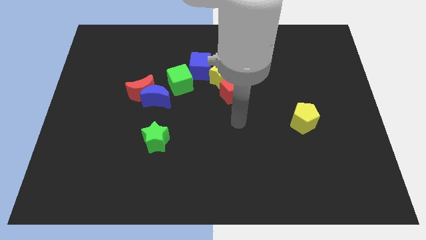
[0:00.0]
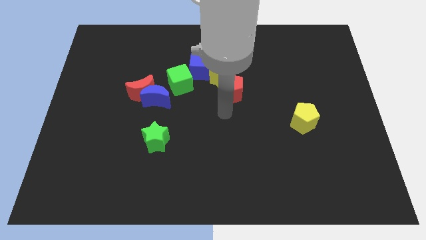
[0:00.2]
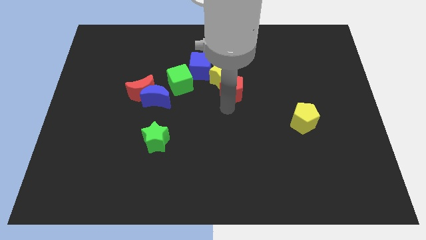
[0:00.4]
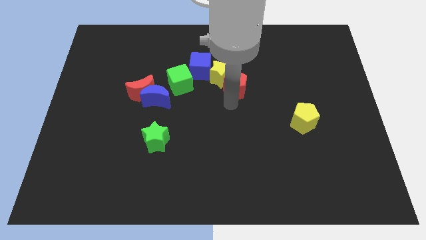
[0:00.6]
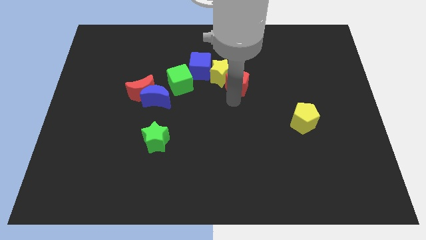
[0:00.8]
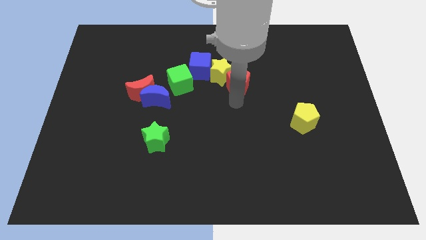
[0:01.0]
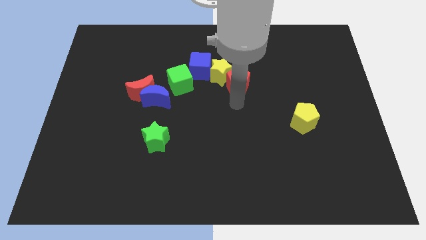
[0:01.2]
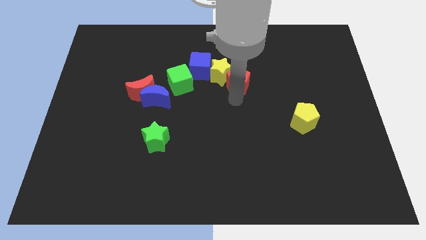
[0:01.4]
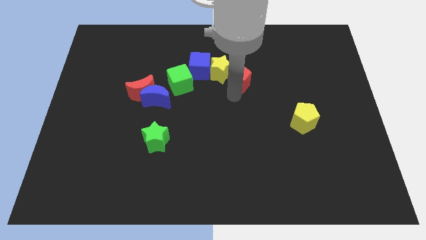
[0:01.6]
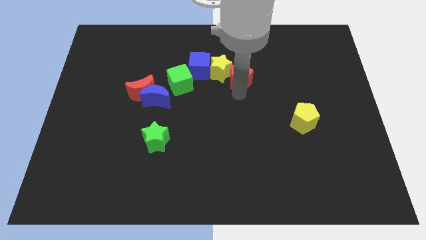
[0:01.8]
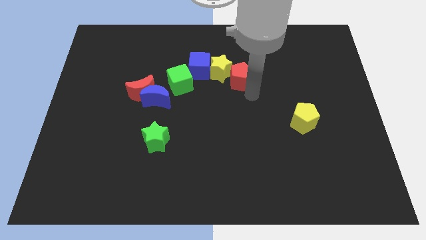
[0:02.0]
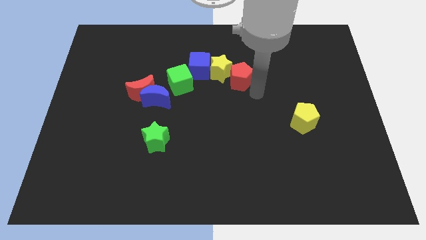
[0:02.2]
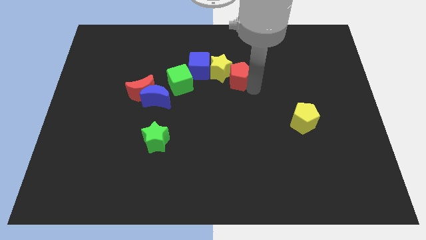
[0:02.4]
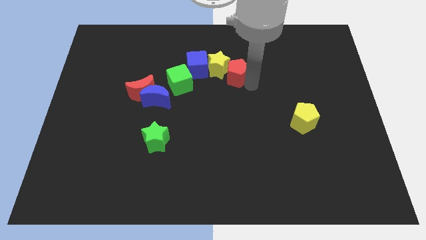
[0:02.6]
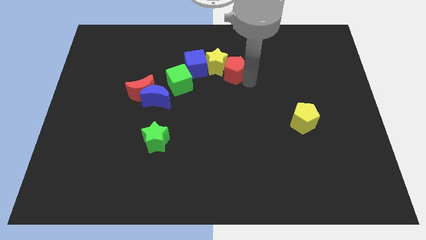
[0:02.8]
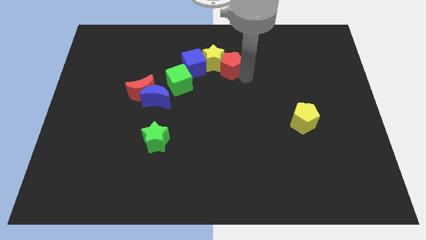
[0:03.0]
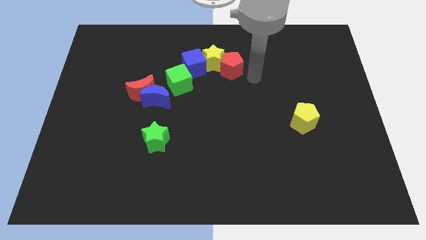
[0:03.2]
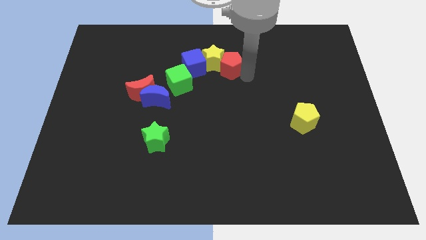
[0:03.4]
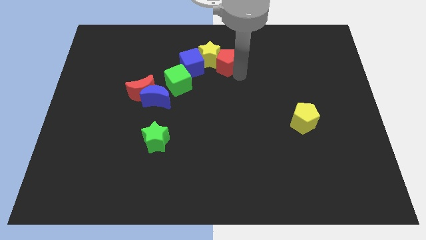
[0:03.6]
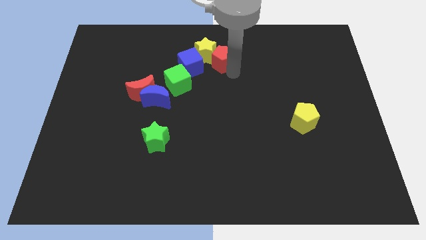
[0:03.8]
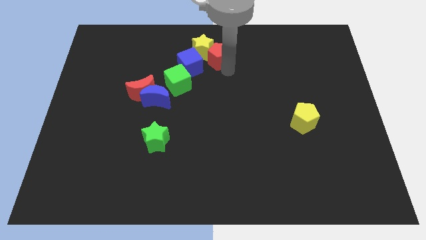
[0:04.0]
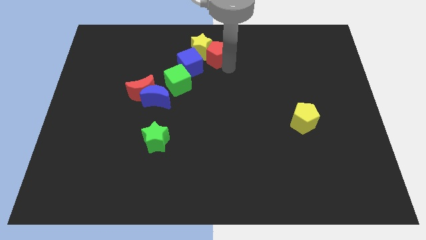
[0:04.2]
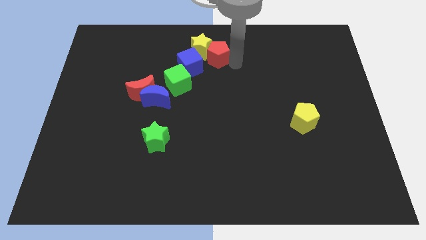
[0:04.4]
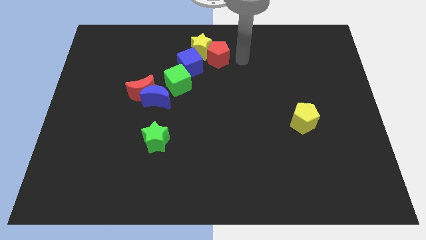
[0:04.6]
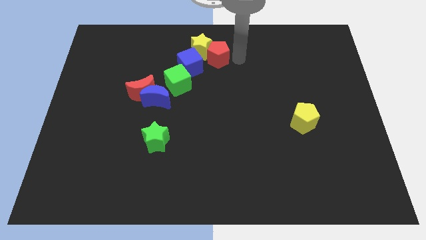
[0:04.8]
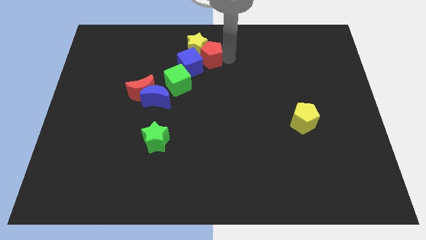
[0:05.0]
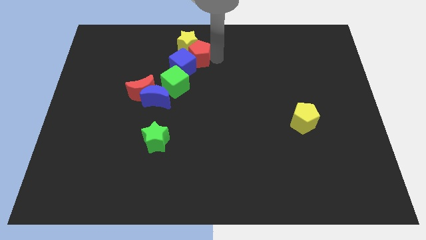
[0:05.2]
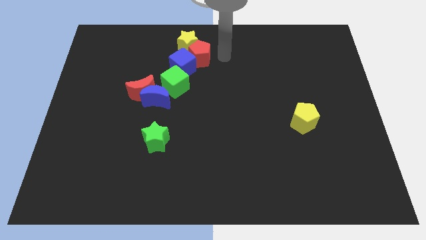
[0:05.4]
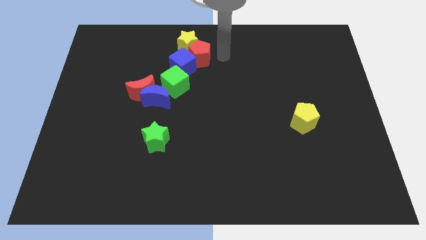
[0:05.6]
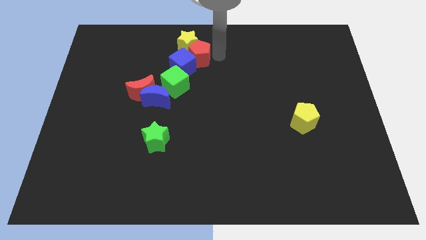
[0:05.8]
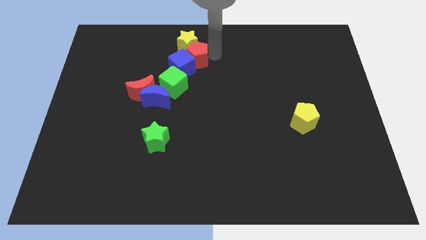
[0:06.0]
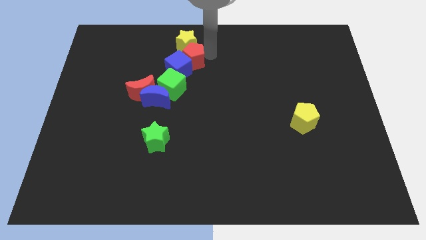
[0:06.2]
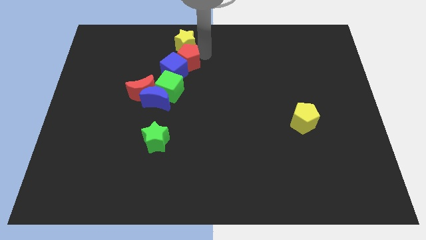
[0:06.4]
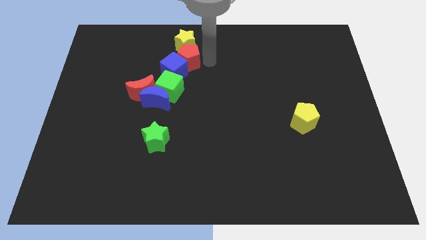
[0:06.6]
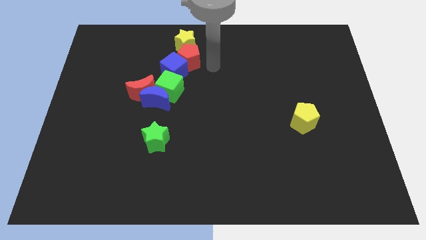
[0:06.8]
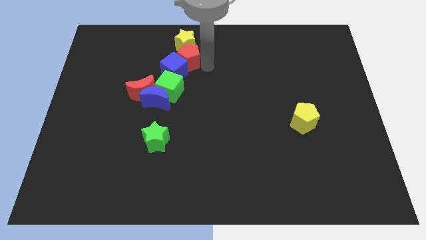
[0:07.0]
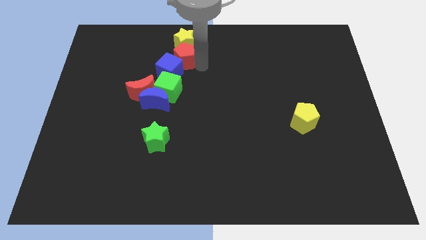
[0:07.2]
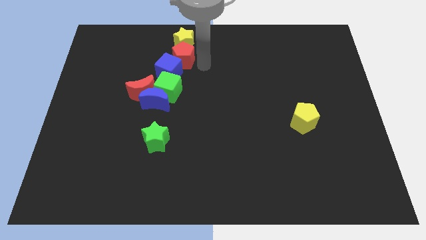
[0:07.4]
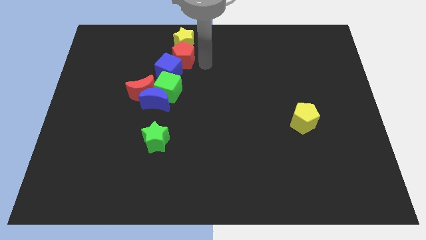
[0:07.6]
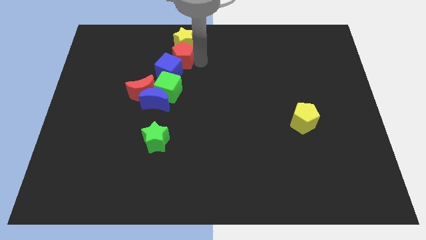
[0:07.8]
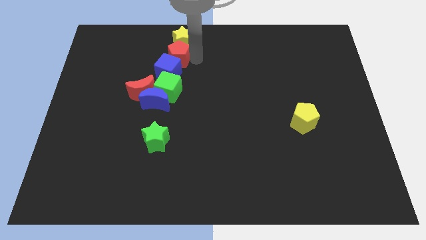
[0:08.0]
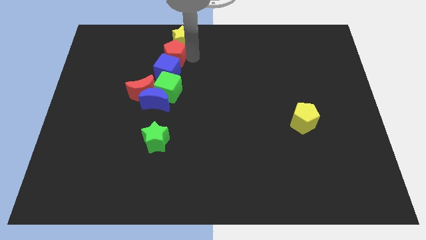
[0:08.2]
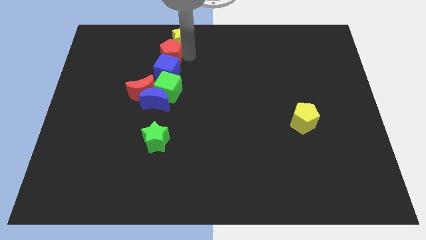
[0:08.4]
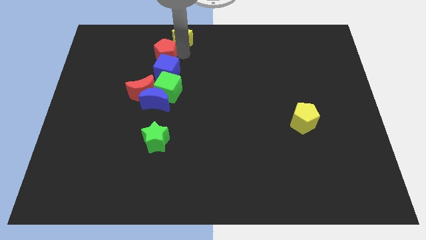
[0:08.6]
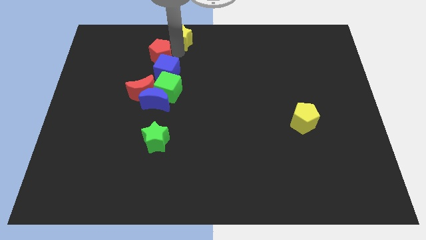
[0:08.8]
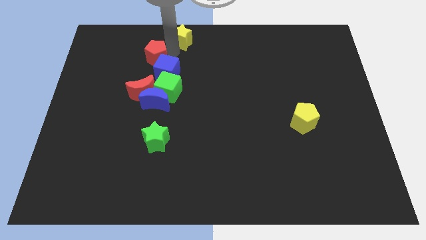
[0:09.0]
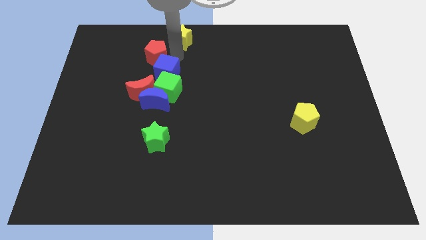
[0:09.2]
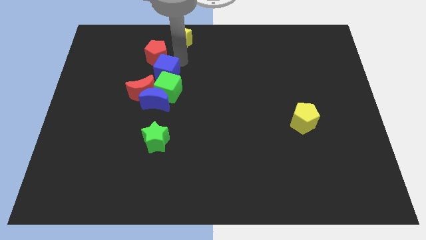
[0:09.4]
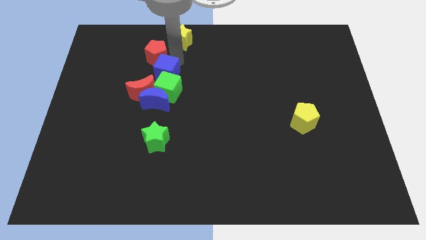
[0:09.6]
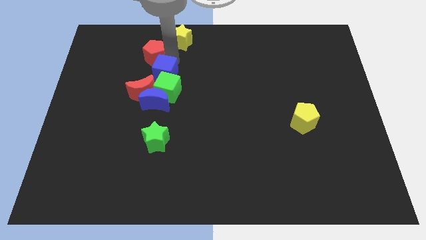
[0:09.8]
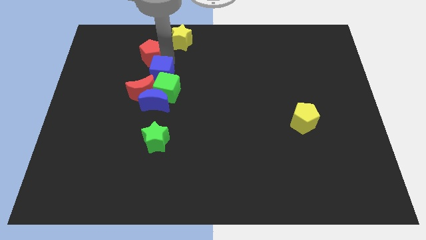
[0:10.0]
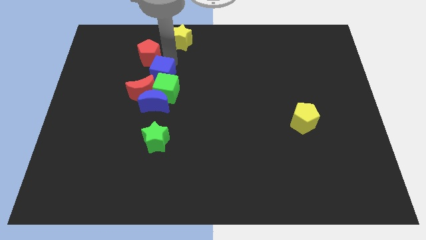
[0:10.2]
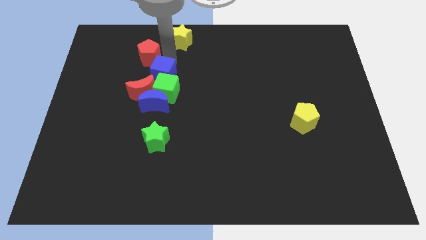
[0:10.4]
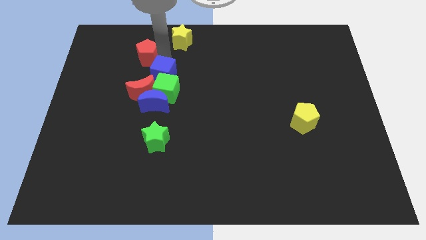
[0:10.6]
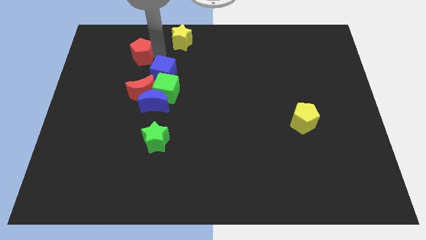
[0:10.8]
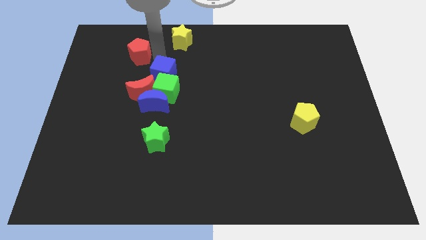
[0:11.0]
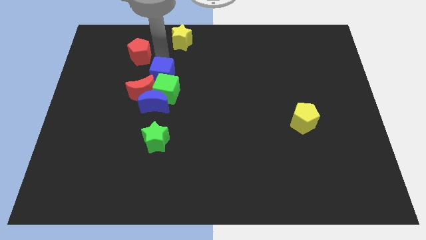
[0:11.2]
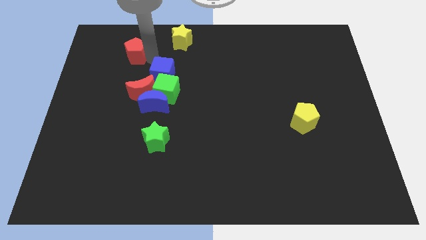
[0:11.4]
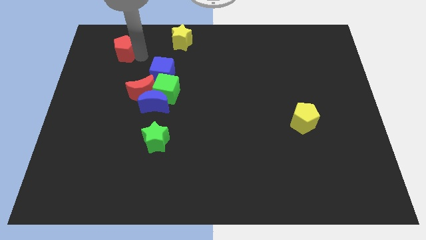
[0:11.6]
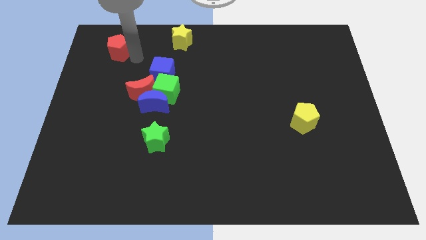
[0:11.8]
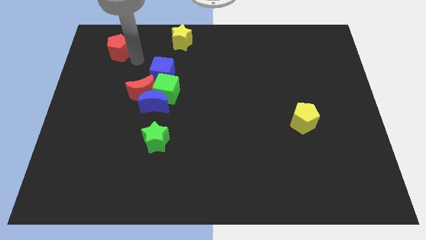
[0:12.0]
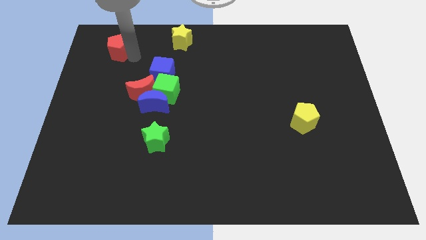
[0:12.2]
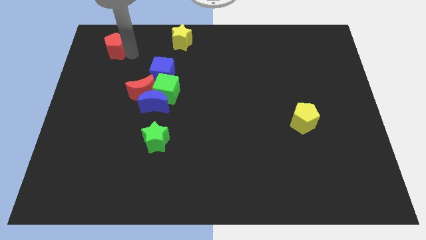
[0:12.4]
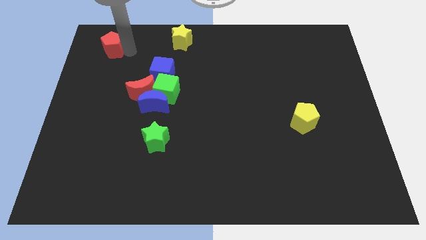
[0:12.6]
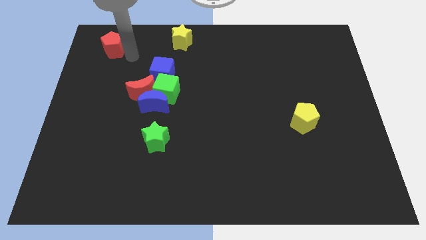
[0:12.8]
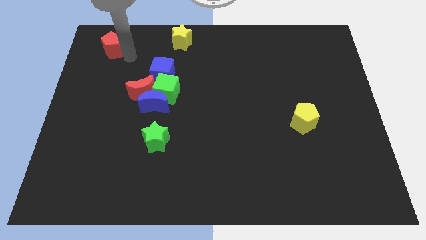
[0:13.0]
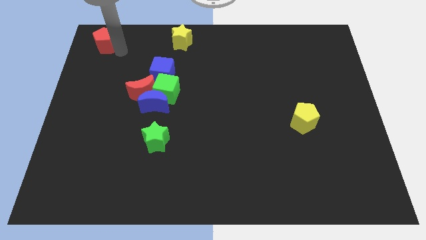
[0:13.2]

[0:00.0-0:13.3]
slide the red pentagon to the top left corner

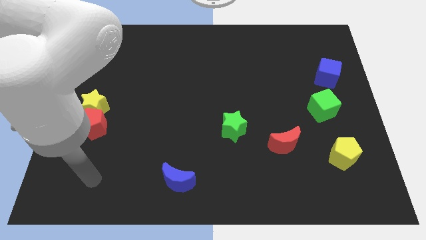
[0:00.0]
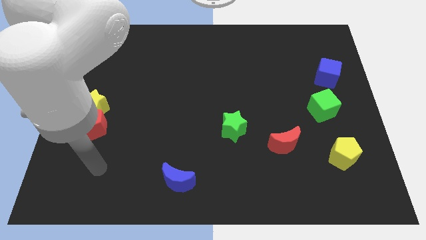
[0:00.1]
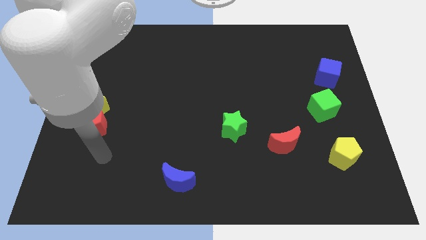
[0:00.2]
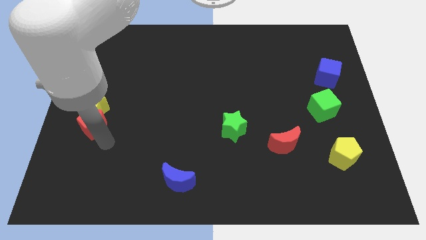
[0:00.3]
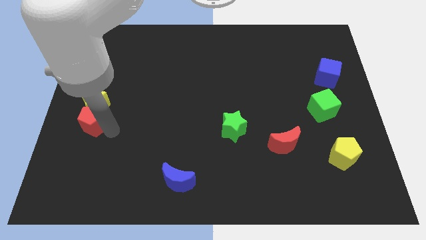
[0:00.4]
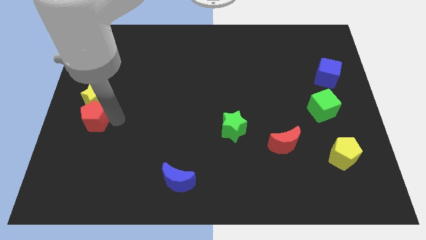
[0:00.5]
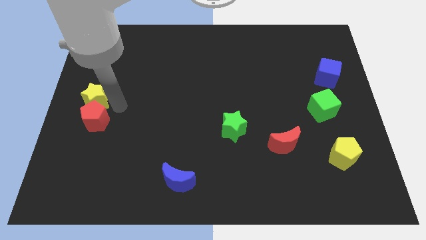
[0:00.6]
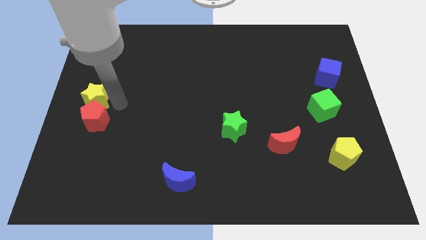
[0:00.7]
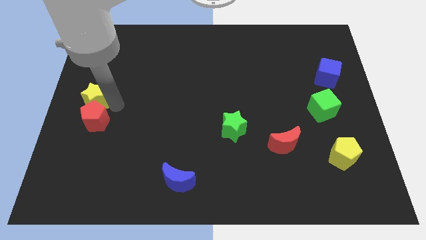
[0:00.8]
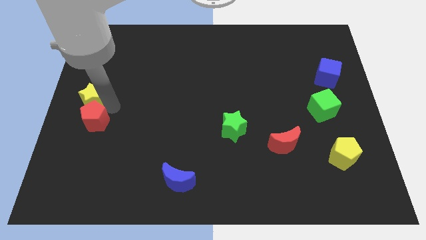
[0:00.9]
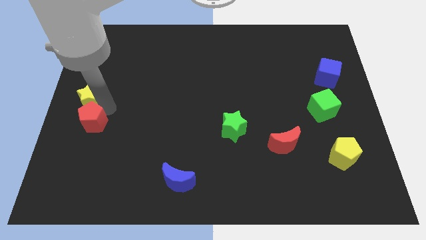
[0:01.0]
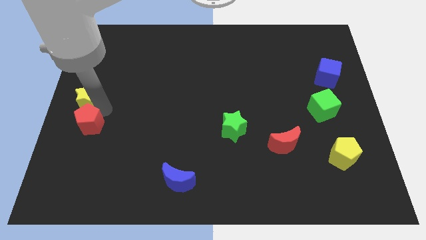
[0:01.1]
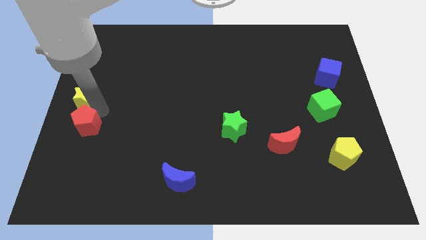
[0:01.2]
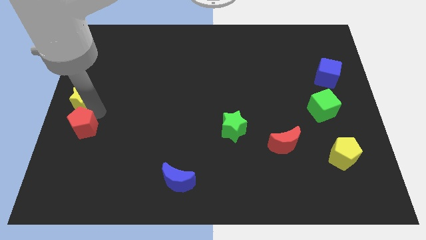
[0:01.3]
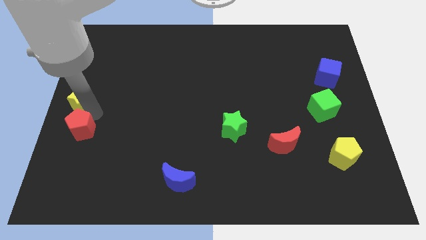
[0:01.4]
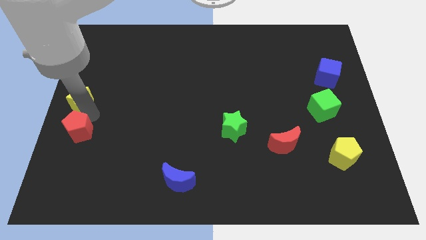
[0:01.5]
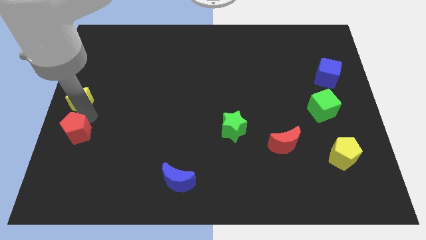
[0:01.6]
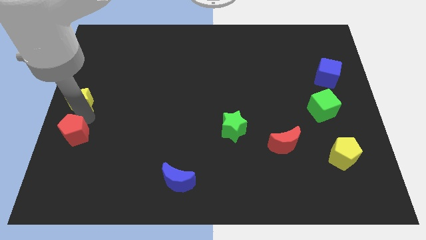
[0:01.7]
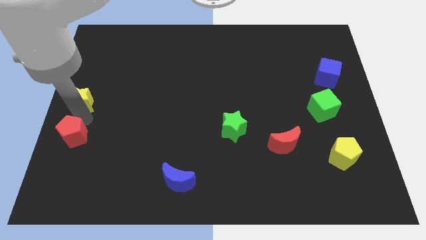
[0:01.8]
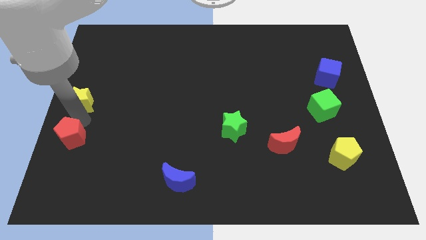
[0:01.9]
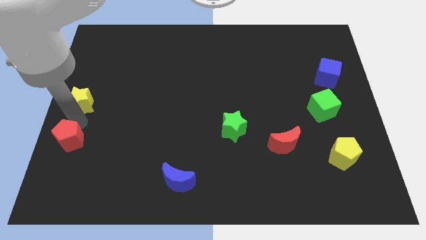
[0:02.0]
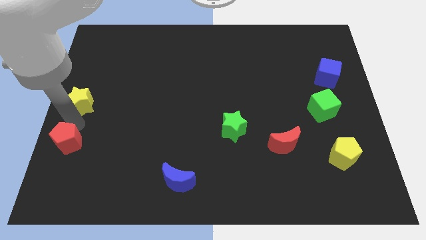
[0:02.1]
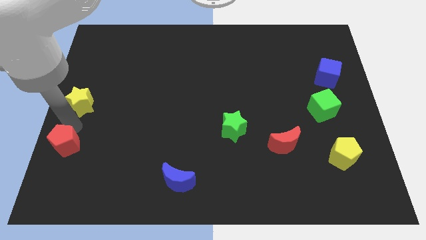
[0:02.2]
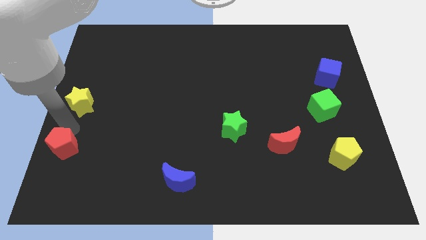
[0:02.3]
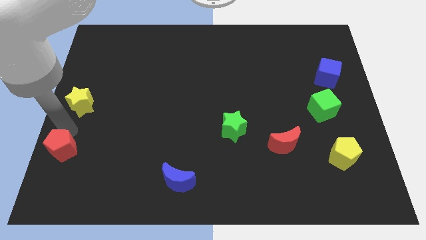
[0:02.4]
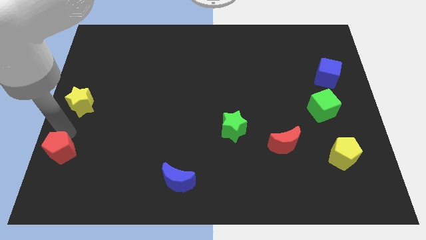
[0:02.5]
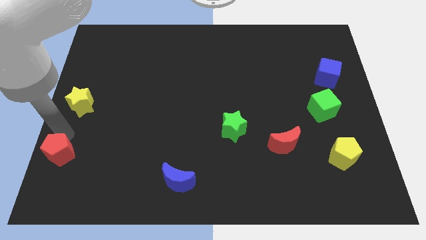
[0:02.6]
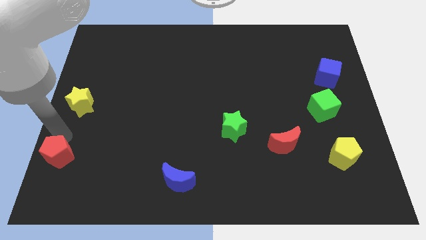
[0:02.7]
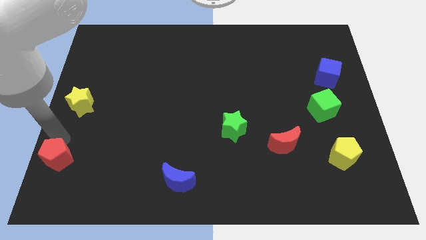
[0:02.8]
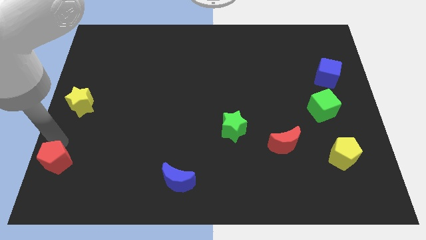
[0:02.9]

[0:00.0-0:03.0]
put the red pentagon to the bottom left of the board
